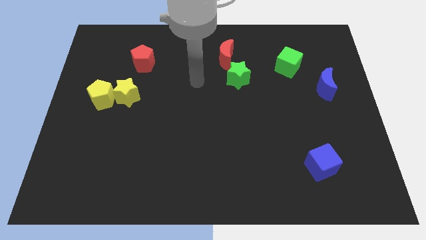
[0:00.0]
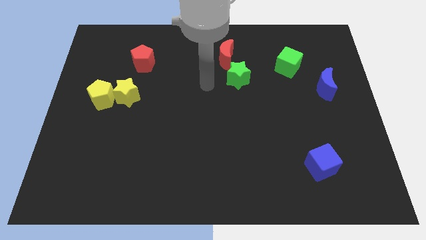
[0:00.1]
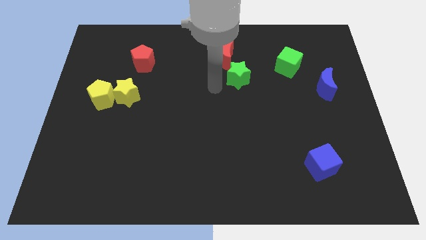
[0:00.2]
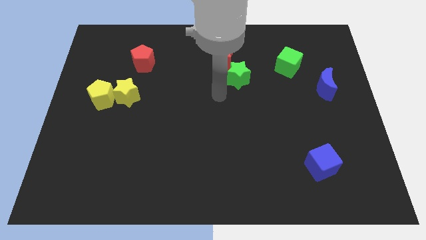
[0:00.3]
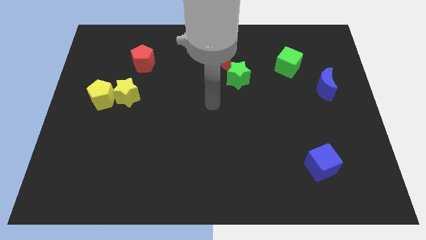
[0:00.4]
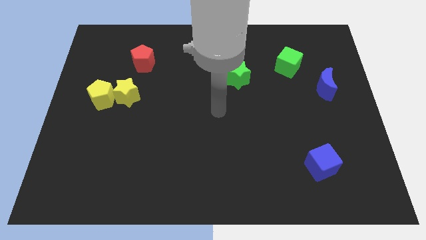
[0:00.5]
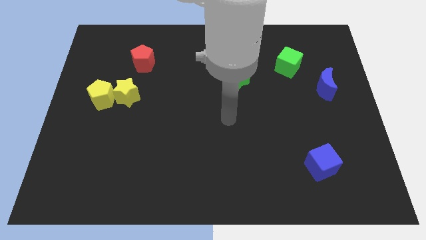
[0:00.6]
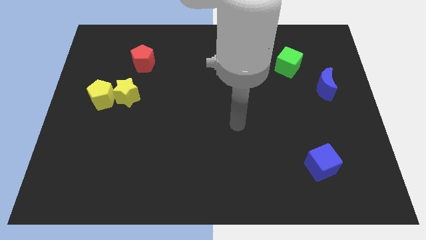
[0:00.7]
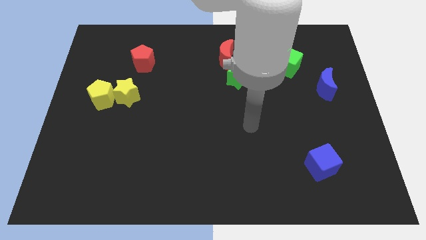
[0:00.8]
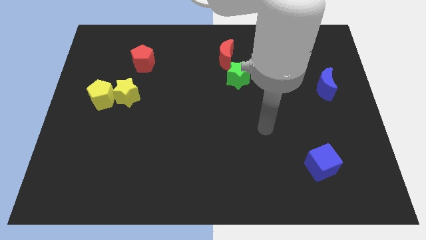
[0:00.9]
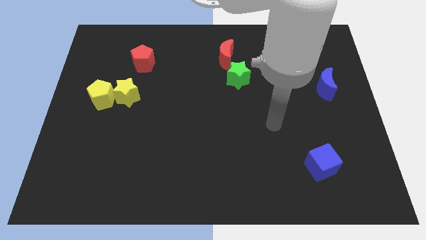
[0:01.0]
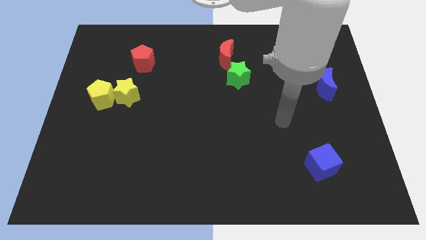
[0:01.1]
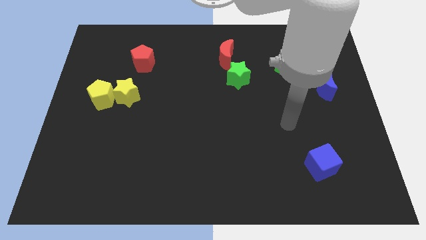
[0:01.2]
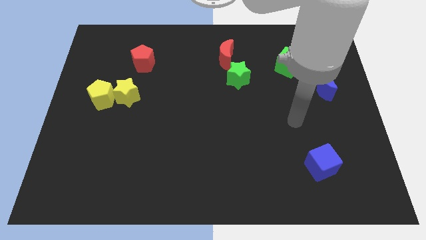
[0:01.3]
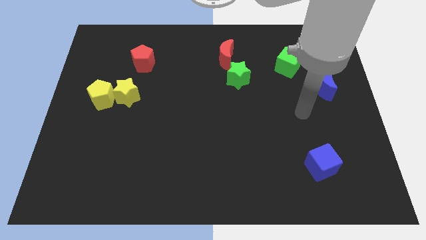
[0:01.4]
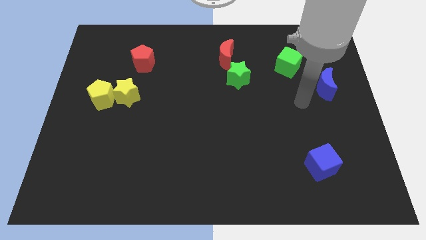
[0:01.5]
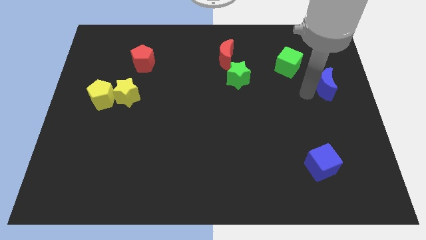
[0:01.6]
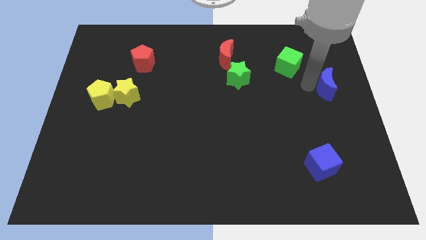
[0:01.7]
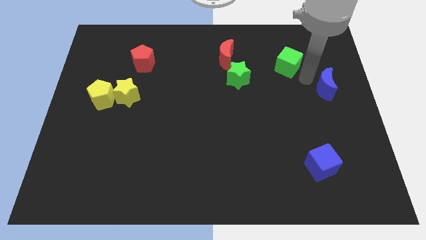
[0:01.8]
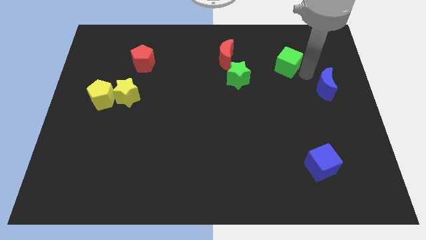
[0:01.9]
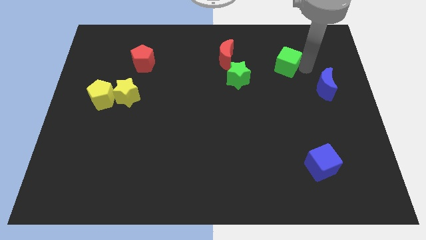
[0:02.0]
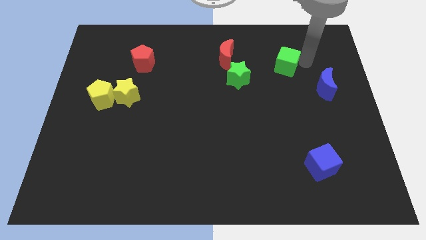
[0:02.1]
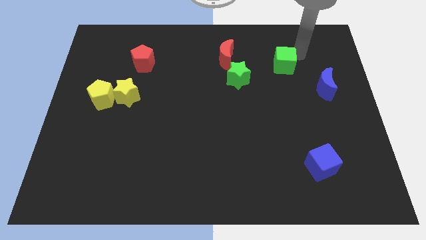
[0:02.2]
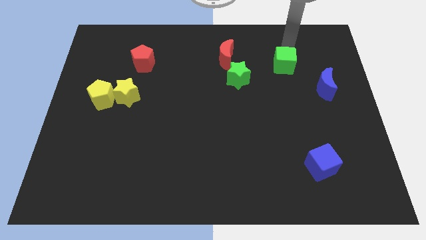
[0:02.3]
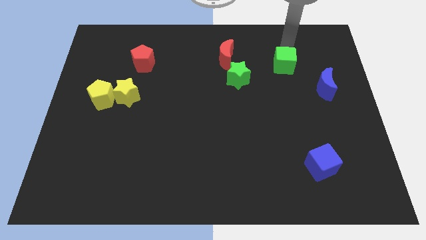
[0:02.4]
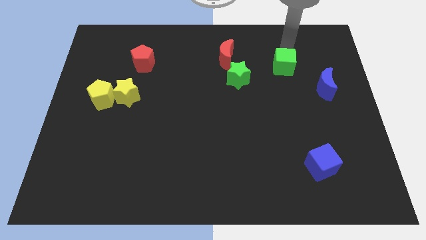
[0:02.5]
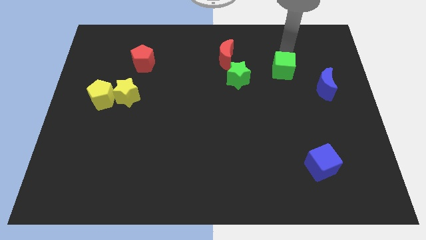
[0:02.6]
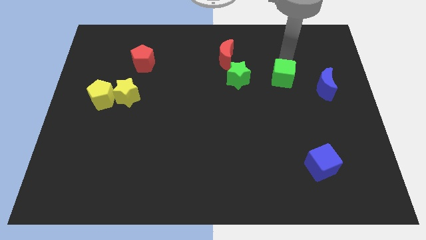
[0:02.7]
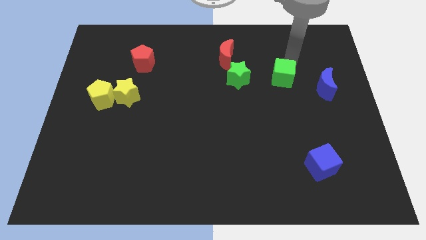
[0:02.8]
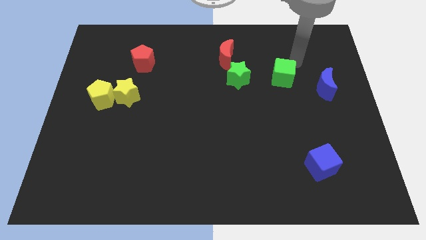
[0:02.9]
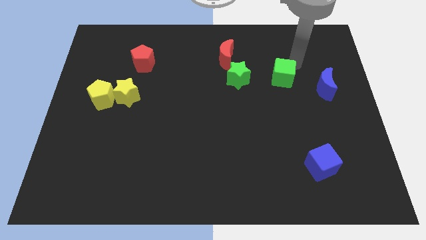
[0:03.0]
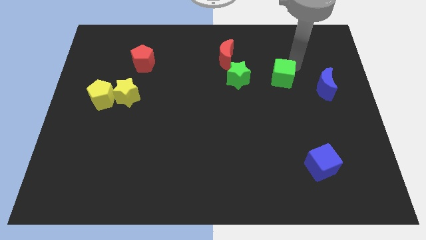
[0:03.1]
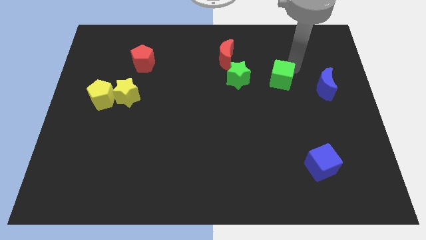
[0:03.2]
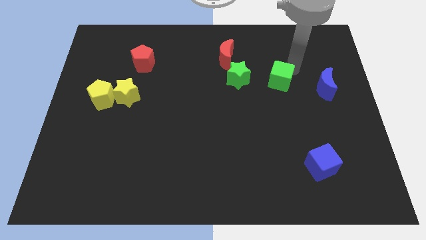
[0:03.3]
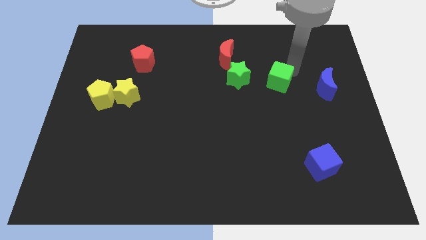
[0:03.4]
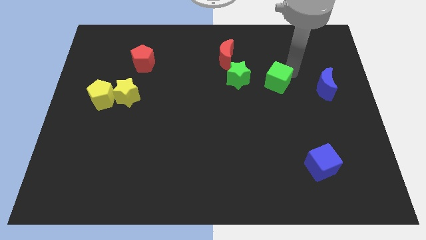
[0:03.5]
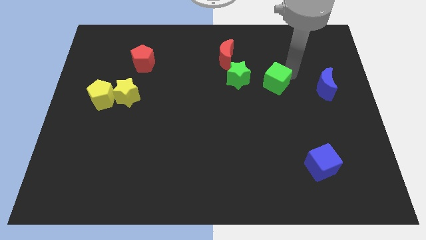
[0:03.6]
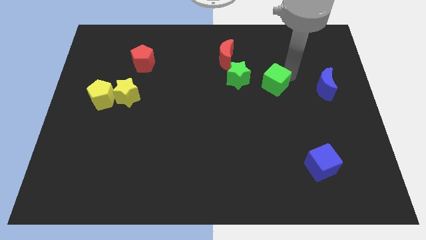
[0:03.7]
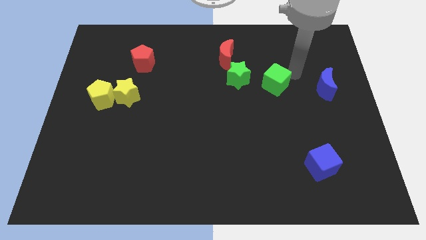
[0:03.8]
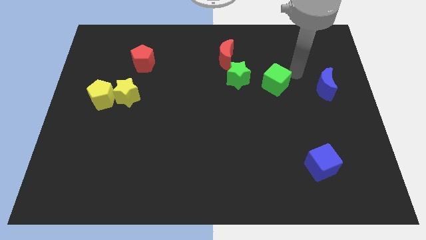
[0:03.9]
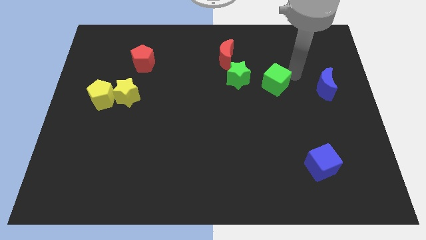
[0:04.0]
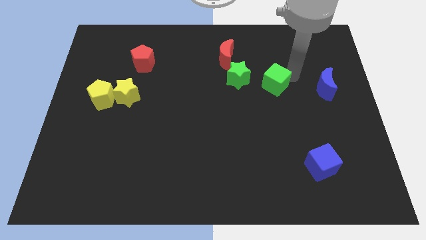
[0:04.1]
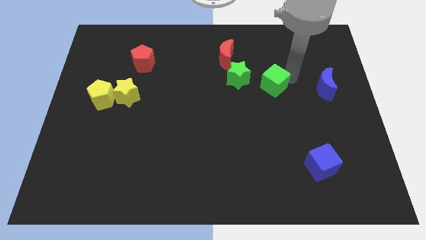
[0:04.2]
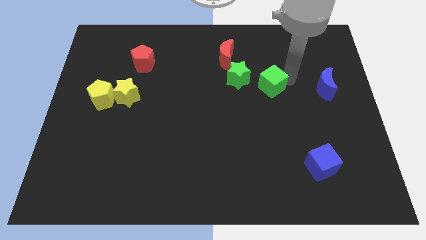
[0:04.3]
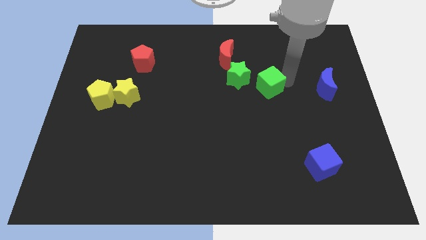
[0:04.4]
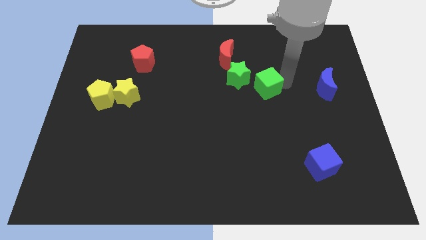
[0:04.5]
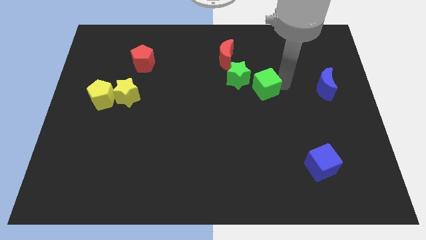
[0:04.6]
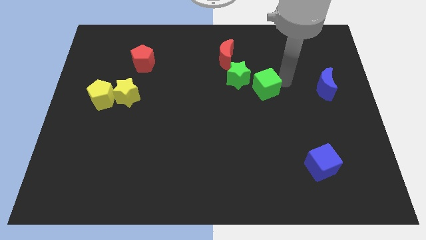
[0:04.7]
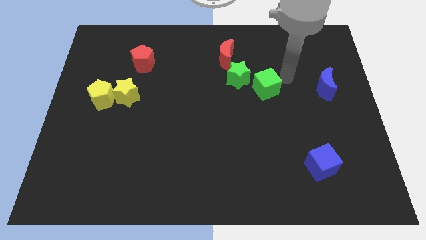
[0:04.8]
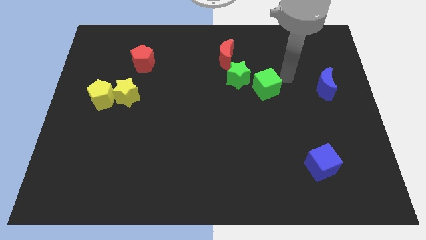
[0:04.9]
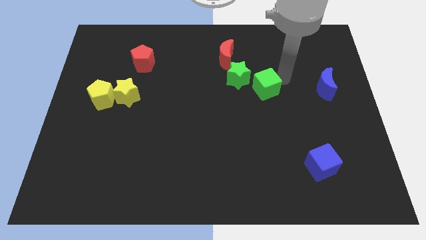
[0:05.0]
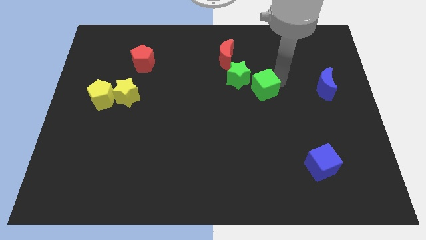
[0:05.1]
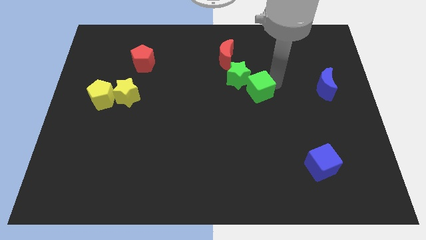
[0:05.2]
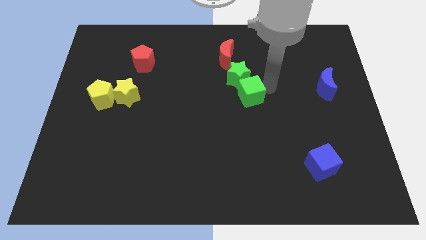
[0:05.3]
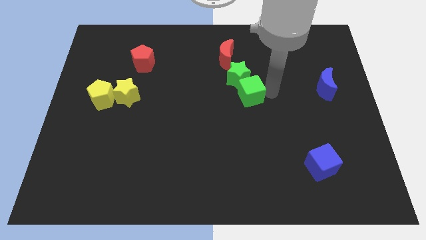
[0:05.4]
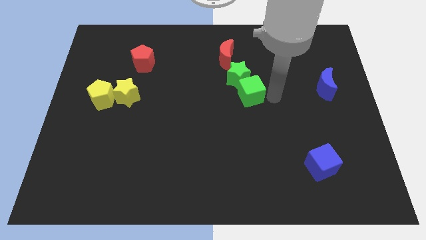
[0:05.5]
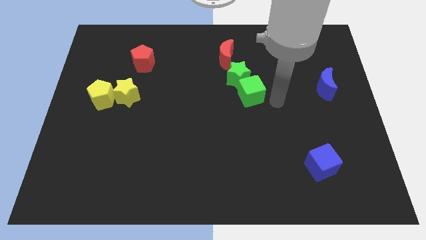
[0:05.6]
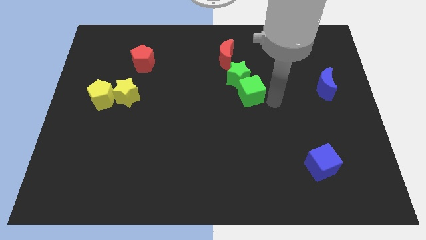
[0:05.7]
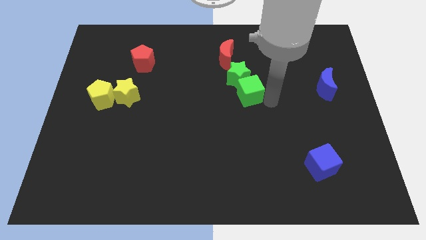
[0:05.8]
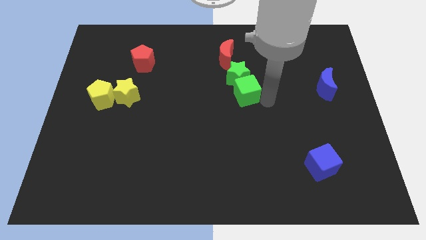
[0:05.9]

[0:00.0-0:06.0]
slide the green cube to the bottom of the red moon

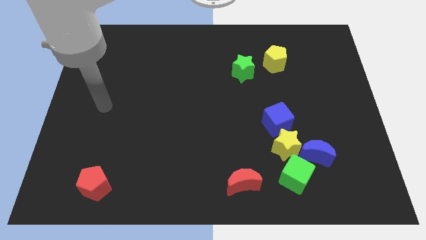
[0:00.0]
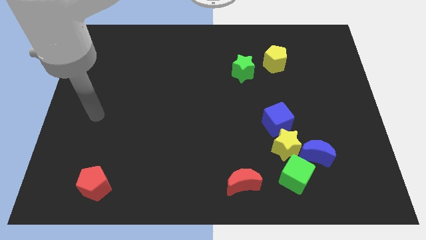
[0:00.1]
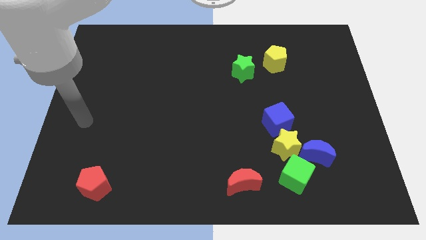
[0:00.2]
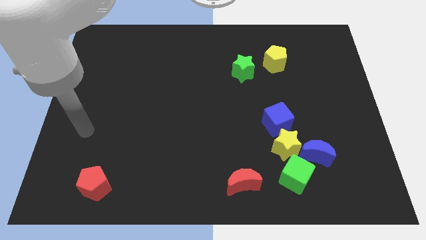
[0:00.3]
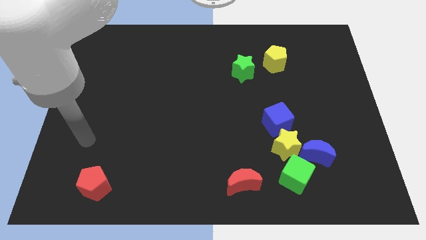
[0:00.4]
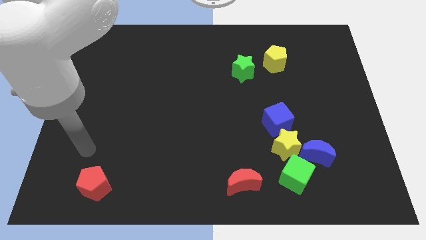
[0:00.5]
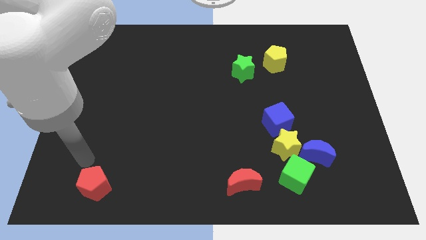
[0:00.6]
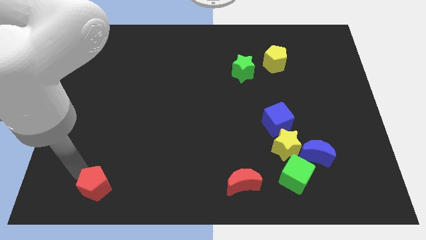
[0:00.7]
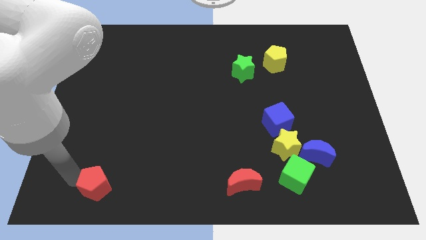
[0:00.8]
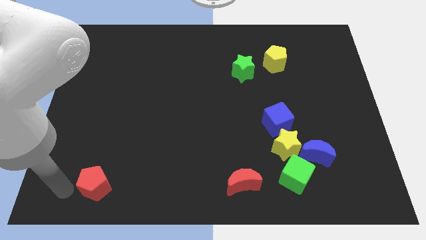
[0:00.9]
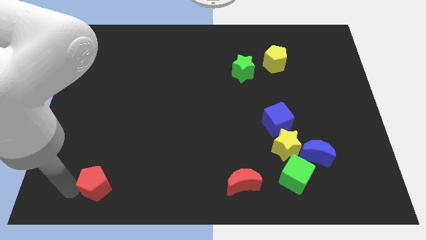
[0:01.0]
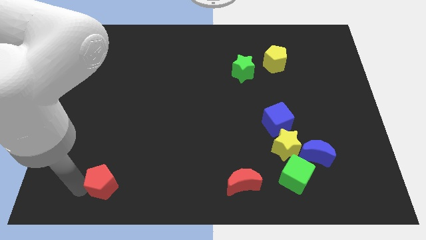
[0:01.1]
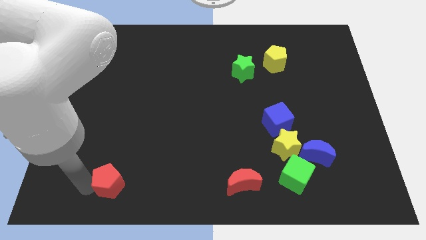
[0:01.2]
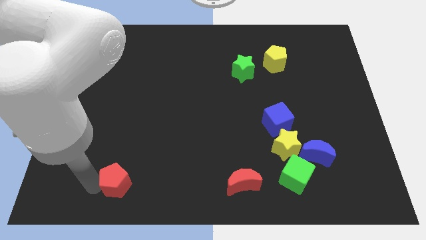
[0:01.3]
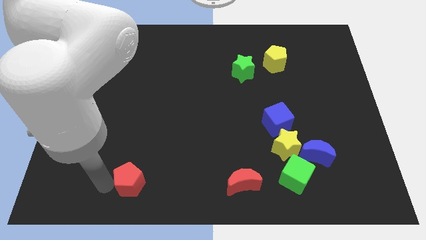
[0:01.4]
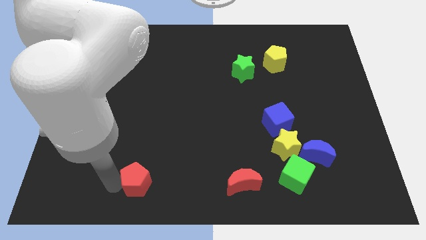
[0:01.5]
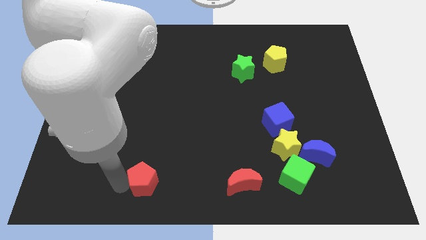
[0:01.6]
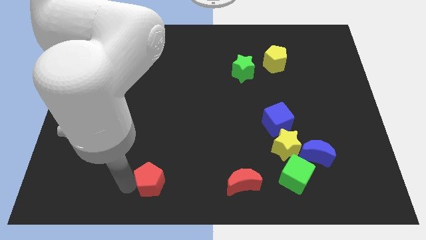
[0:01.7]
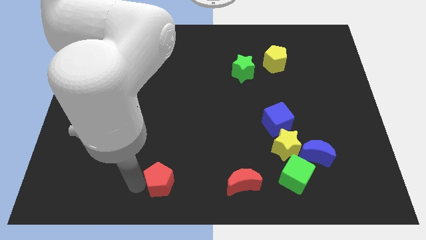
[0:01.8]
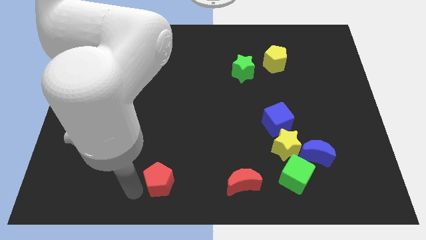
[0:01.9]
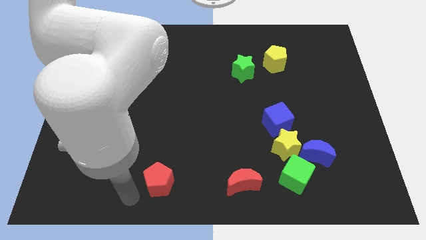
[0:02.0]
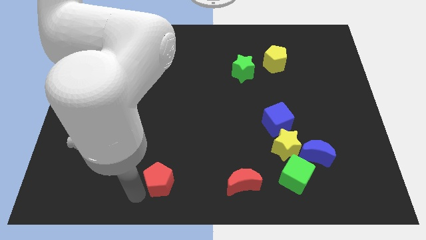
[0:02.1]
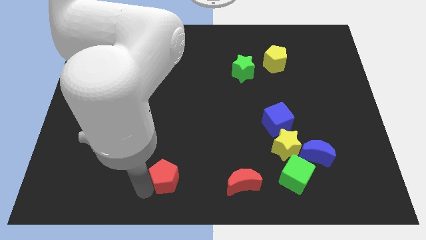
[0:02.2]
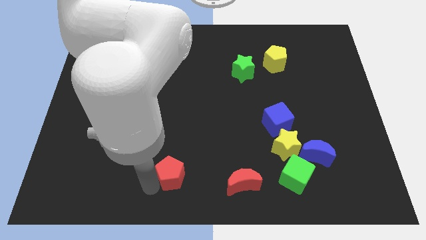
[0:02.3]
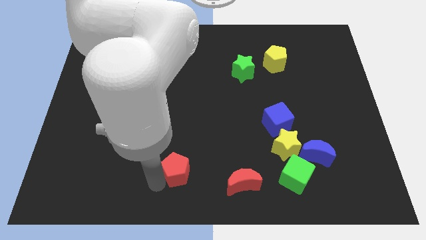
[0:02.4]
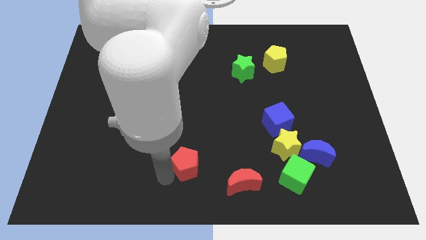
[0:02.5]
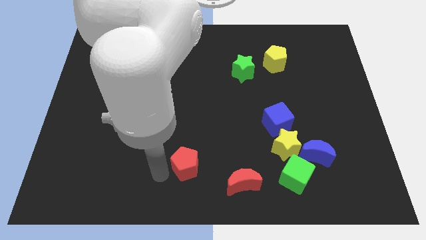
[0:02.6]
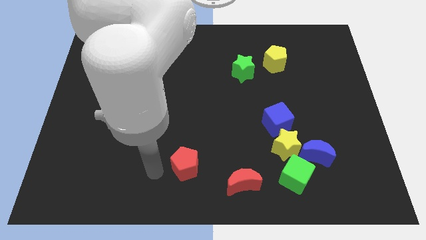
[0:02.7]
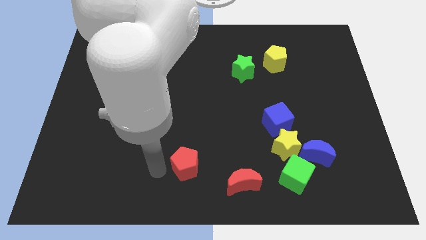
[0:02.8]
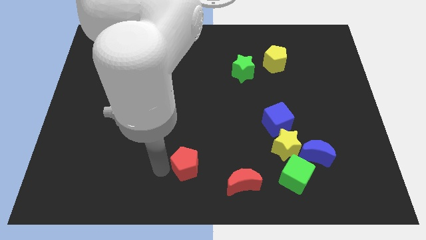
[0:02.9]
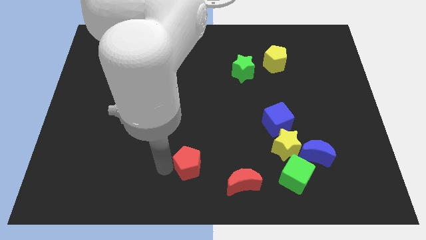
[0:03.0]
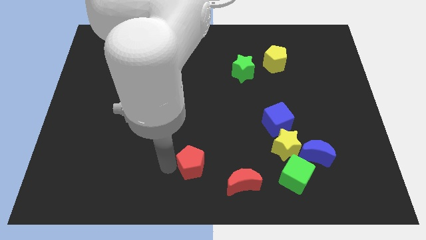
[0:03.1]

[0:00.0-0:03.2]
slide the red pentagon to the top left side of the red moon
